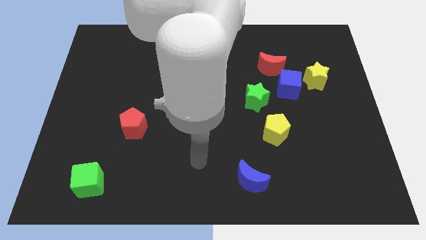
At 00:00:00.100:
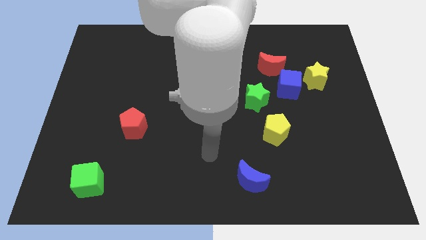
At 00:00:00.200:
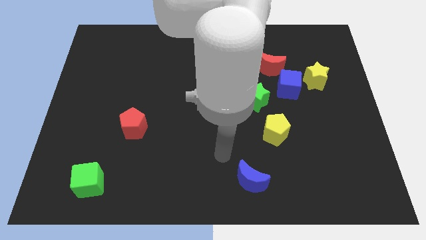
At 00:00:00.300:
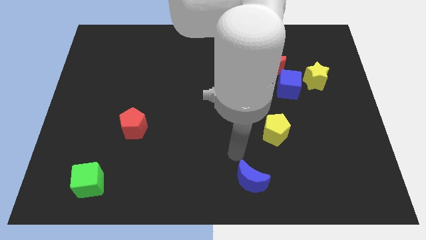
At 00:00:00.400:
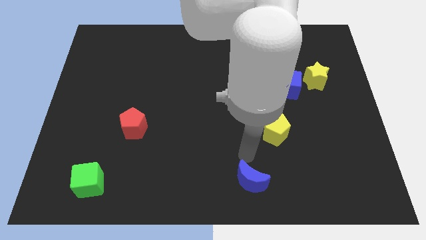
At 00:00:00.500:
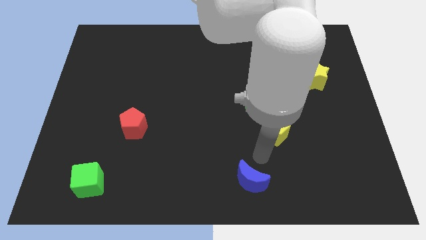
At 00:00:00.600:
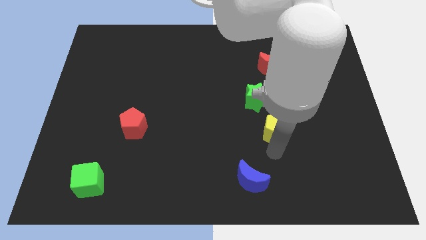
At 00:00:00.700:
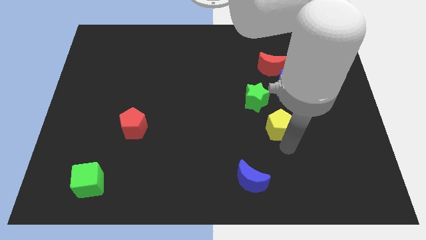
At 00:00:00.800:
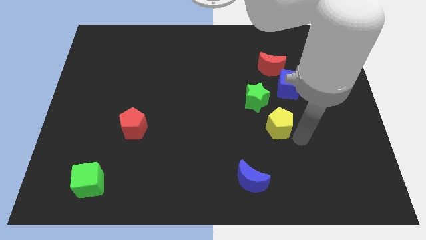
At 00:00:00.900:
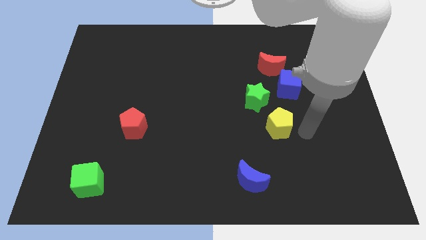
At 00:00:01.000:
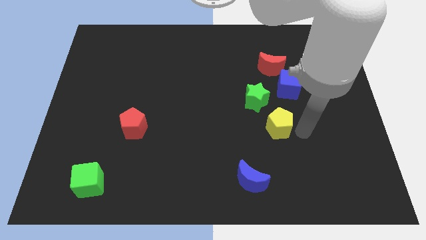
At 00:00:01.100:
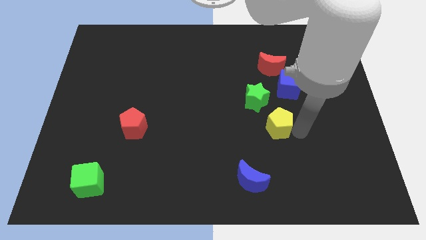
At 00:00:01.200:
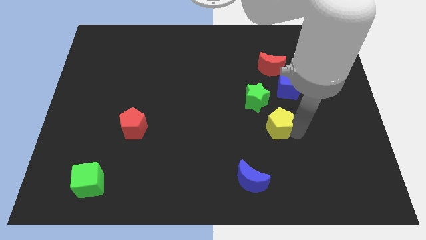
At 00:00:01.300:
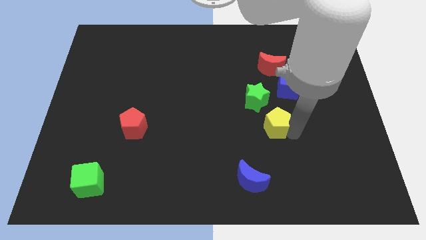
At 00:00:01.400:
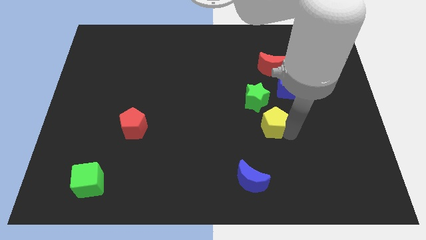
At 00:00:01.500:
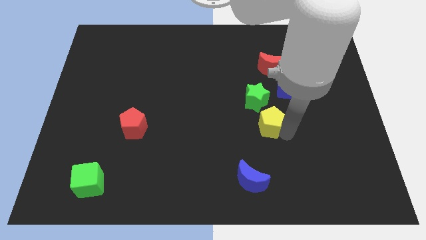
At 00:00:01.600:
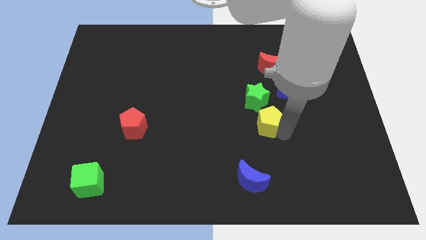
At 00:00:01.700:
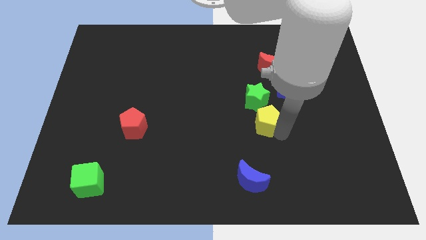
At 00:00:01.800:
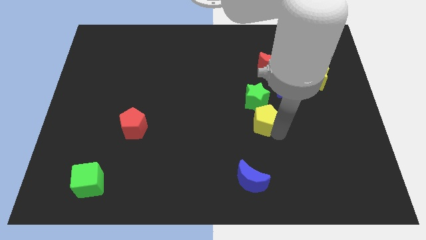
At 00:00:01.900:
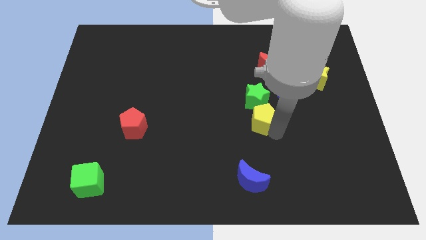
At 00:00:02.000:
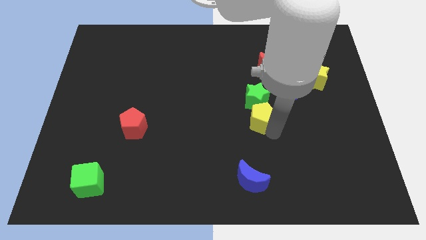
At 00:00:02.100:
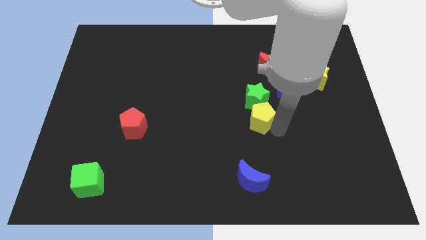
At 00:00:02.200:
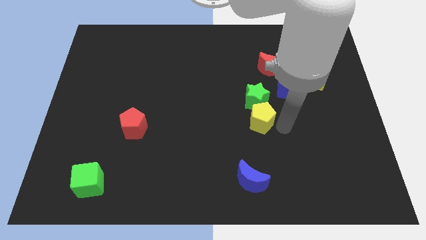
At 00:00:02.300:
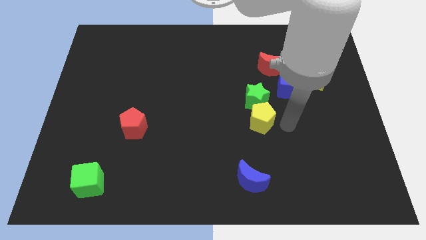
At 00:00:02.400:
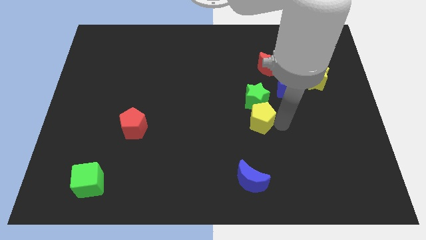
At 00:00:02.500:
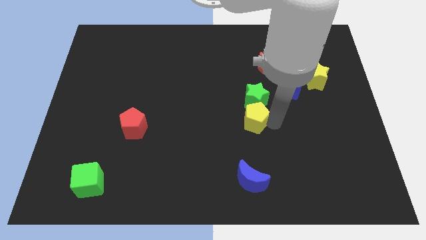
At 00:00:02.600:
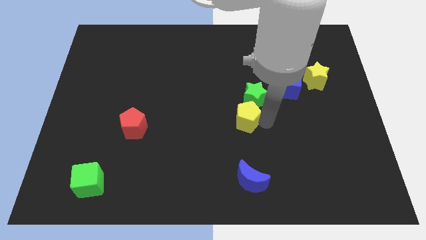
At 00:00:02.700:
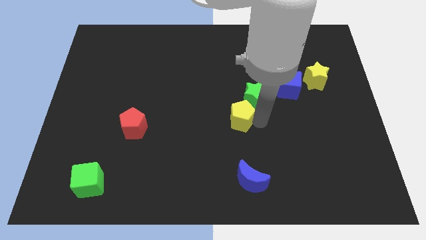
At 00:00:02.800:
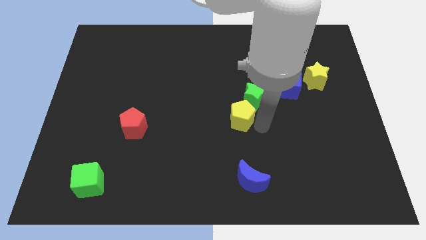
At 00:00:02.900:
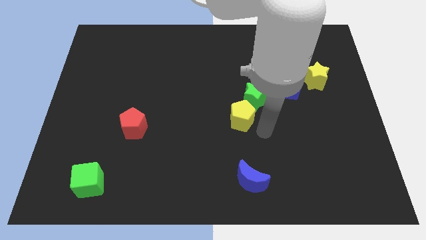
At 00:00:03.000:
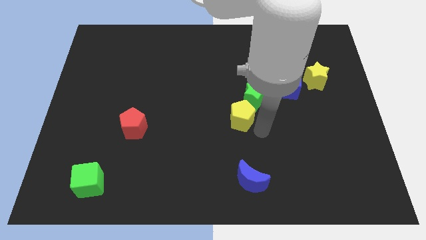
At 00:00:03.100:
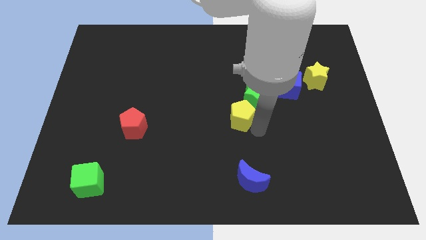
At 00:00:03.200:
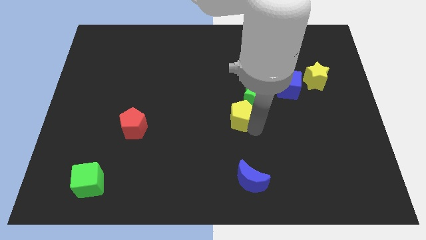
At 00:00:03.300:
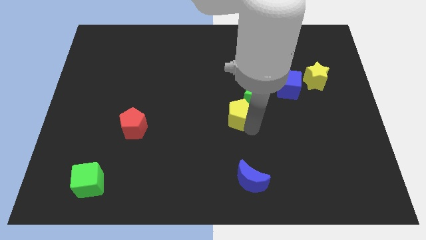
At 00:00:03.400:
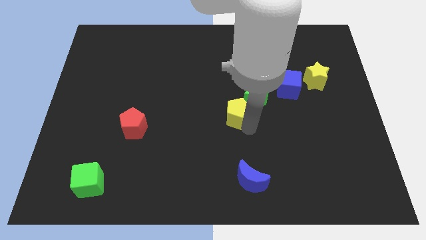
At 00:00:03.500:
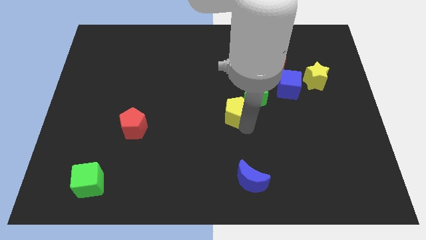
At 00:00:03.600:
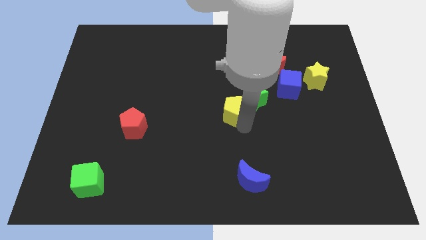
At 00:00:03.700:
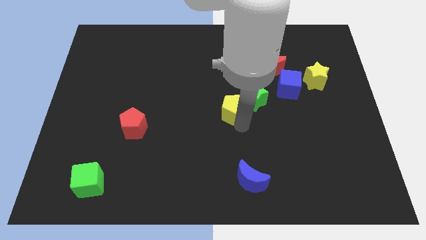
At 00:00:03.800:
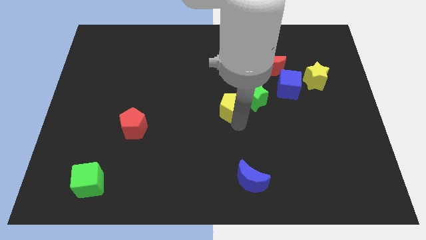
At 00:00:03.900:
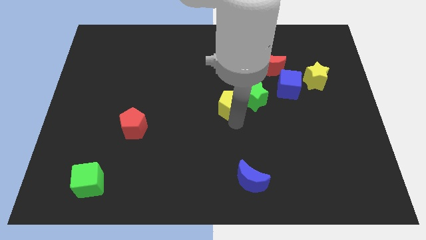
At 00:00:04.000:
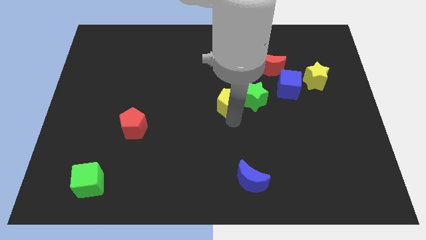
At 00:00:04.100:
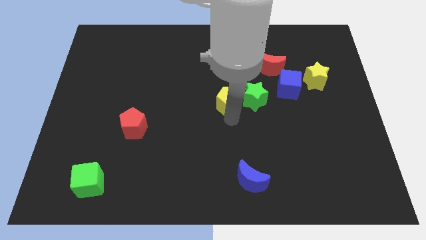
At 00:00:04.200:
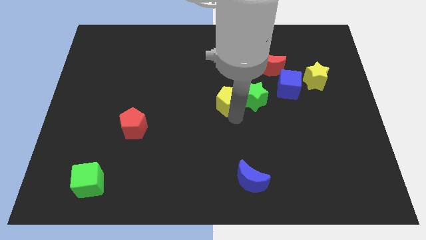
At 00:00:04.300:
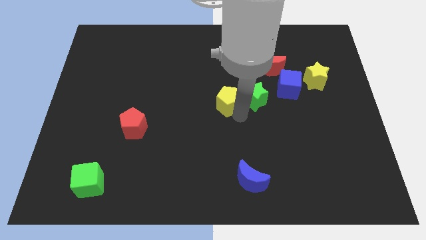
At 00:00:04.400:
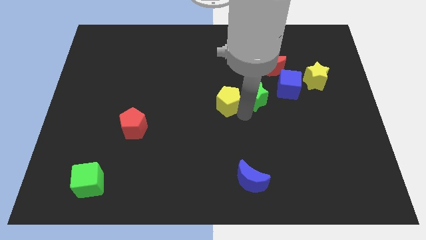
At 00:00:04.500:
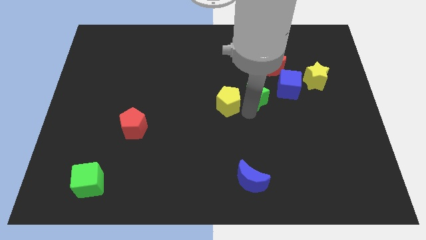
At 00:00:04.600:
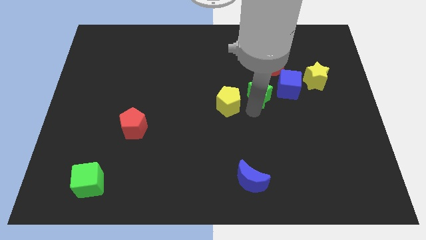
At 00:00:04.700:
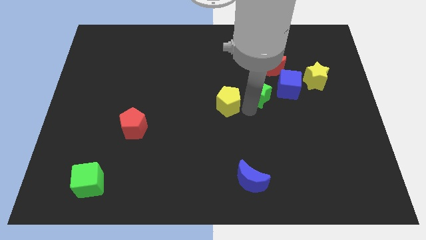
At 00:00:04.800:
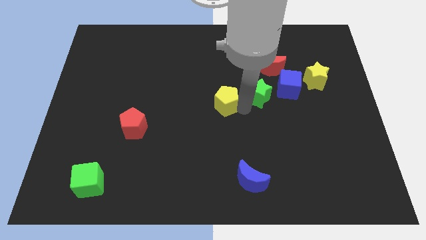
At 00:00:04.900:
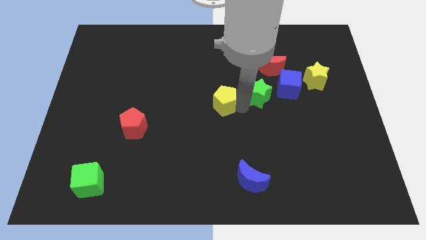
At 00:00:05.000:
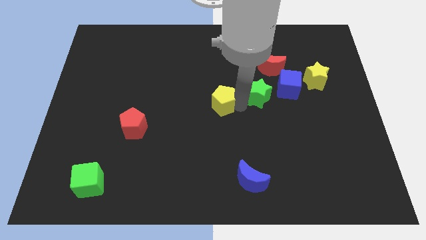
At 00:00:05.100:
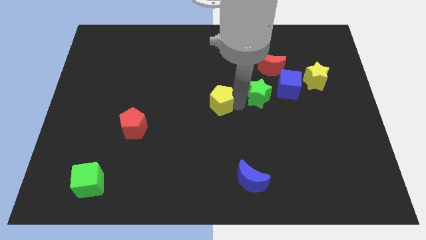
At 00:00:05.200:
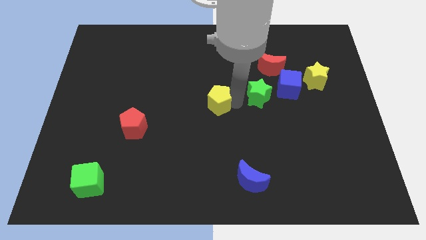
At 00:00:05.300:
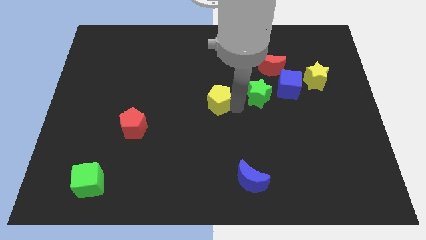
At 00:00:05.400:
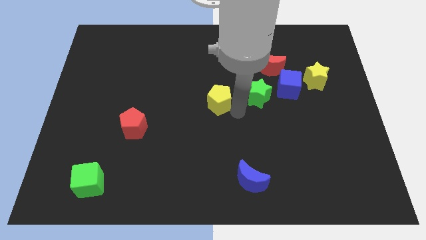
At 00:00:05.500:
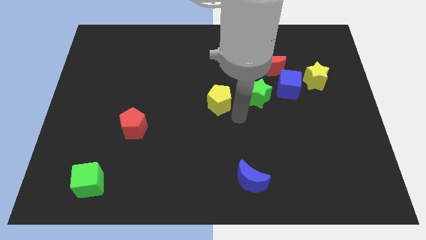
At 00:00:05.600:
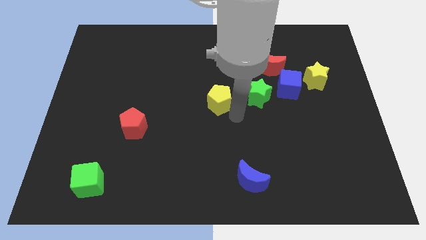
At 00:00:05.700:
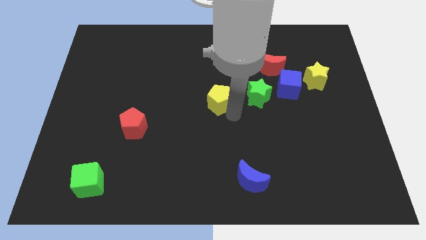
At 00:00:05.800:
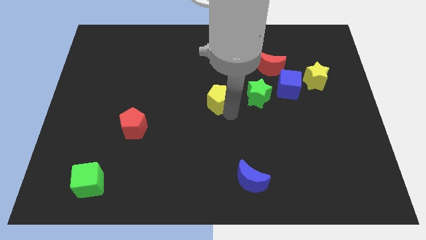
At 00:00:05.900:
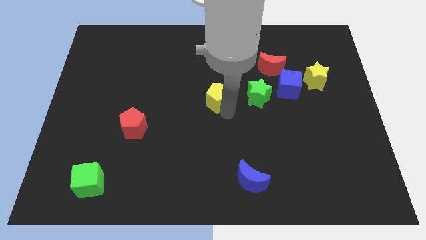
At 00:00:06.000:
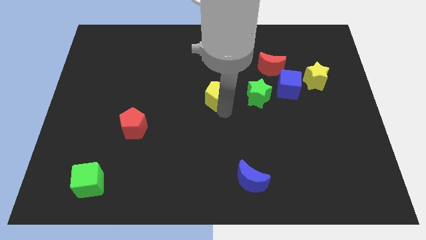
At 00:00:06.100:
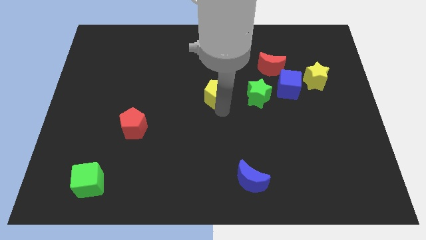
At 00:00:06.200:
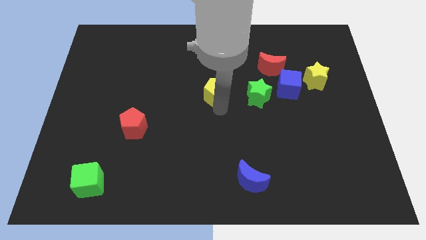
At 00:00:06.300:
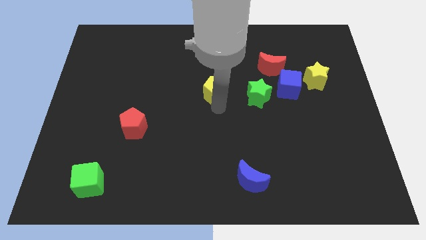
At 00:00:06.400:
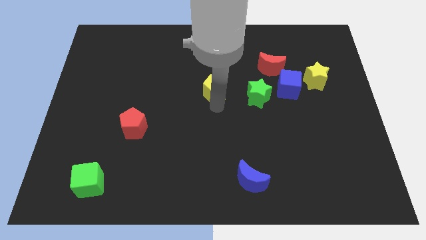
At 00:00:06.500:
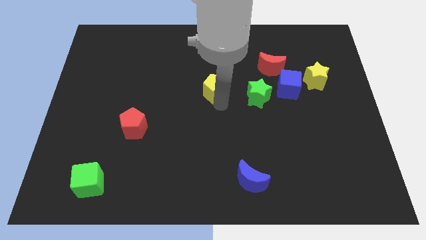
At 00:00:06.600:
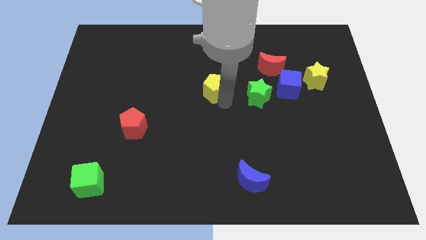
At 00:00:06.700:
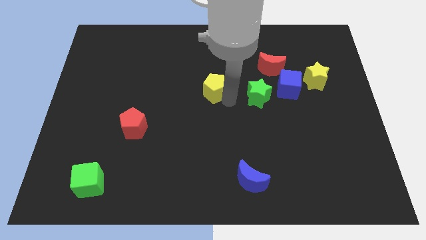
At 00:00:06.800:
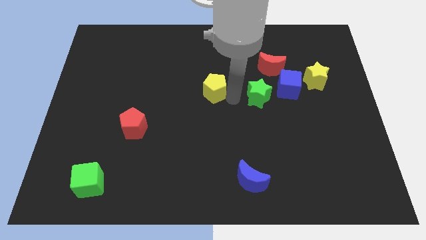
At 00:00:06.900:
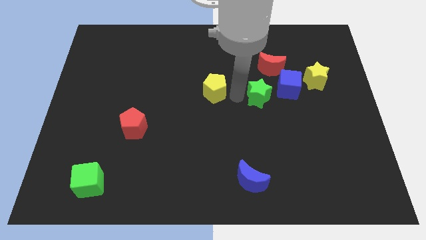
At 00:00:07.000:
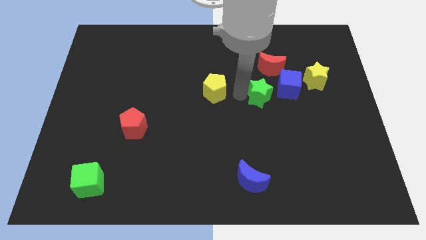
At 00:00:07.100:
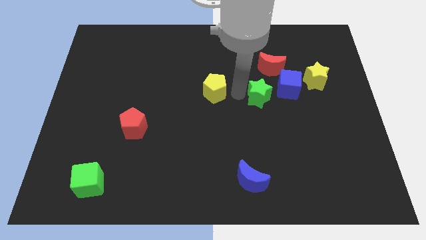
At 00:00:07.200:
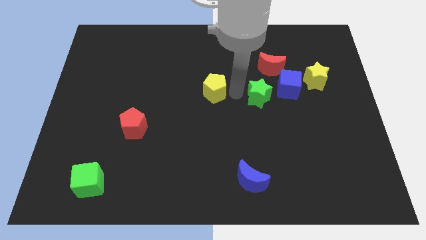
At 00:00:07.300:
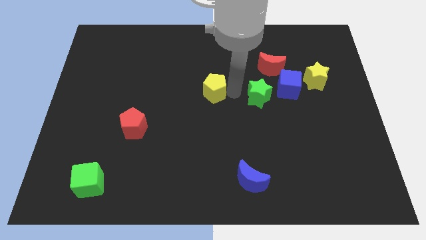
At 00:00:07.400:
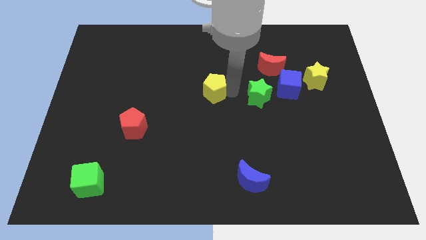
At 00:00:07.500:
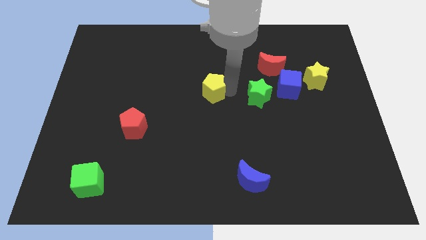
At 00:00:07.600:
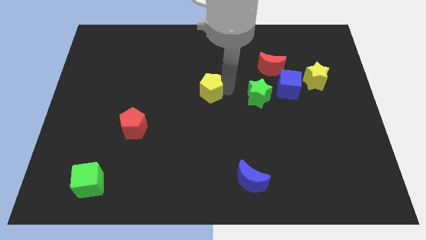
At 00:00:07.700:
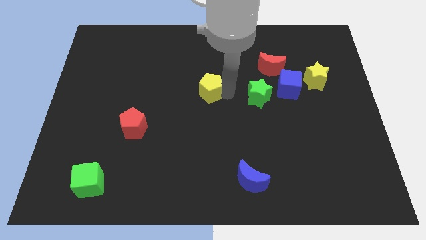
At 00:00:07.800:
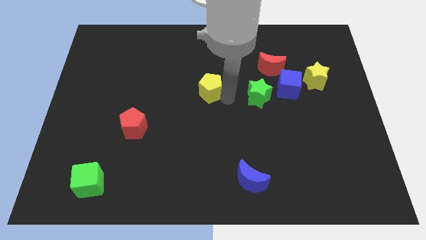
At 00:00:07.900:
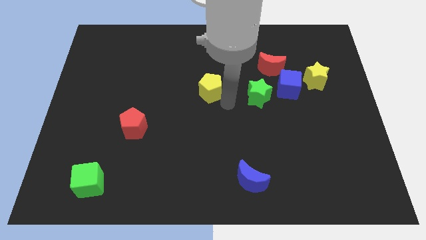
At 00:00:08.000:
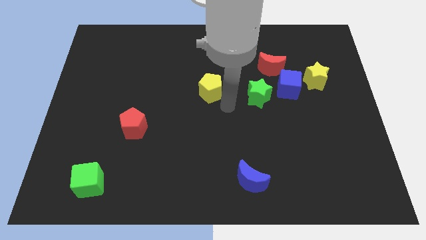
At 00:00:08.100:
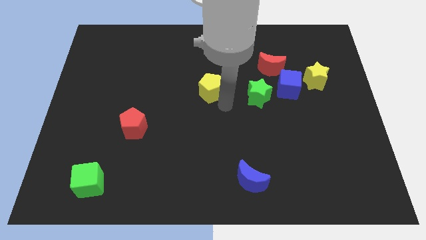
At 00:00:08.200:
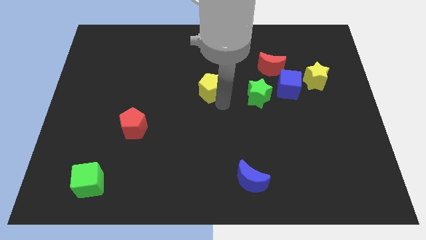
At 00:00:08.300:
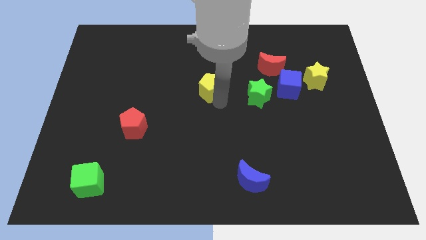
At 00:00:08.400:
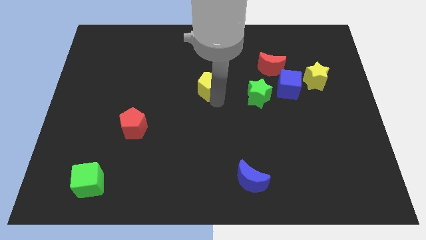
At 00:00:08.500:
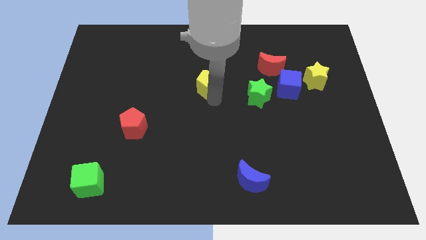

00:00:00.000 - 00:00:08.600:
push the yellow pentagon upwards and left
